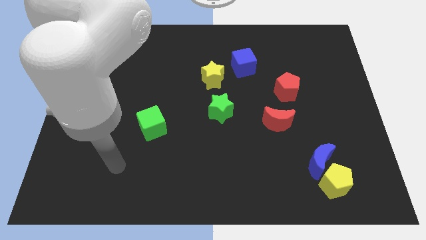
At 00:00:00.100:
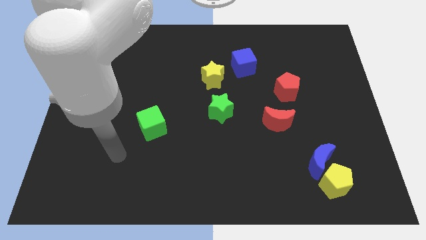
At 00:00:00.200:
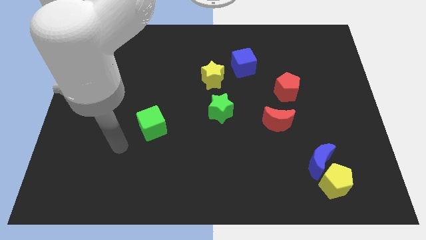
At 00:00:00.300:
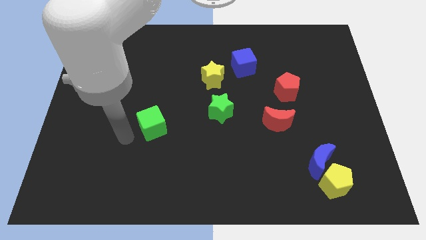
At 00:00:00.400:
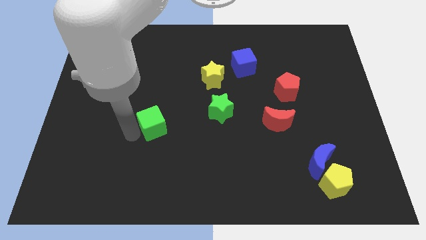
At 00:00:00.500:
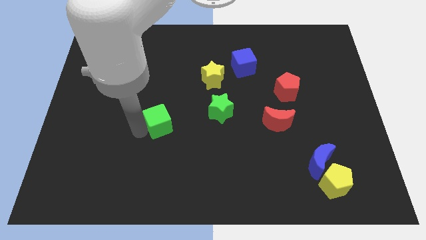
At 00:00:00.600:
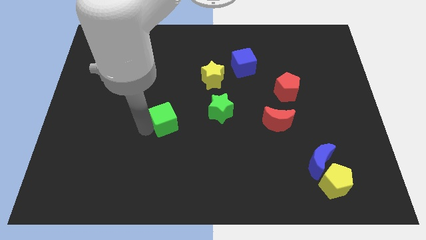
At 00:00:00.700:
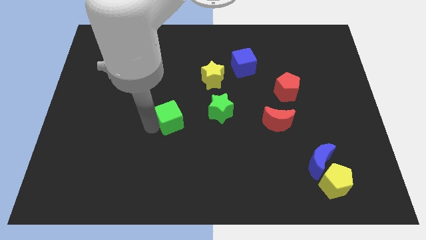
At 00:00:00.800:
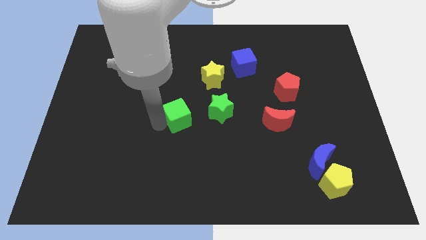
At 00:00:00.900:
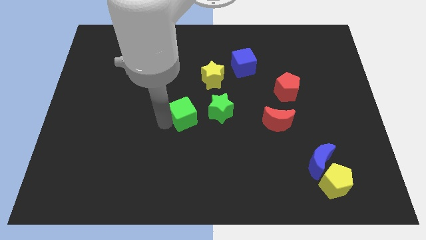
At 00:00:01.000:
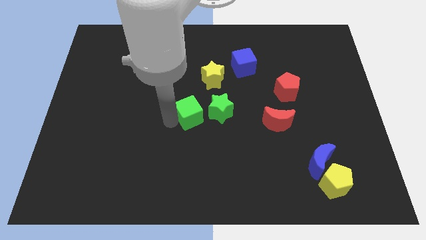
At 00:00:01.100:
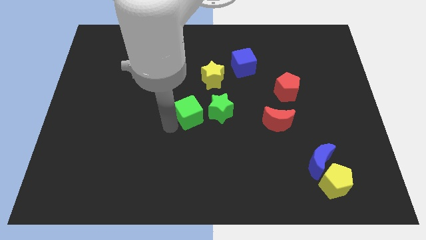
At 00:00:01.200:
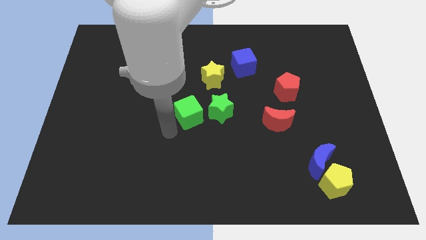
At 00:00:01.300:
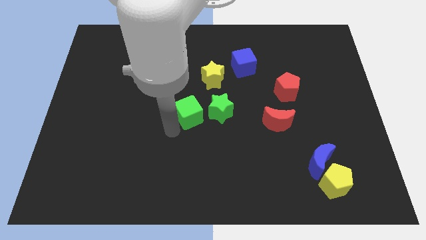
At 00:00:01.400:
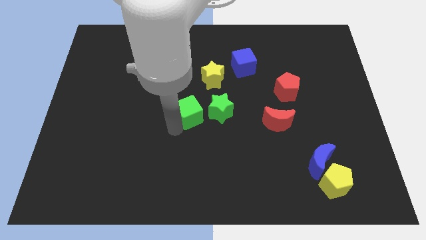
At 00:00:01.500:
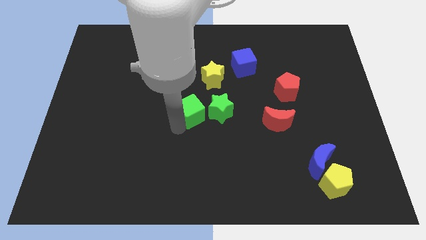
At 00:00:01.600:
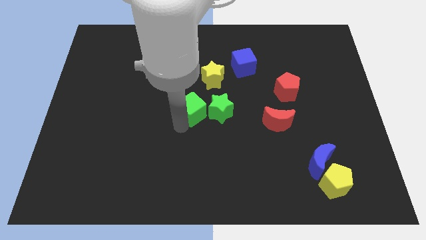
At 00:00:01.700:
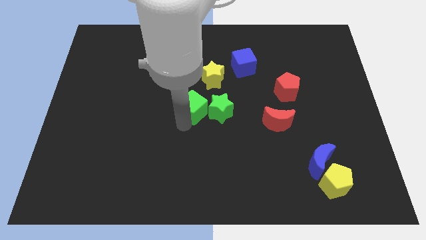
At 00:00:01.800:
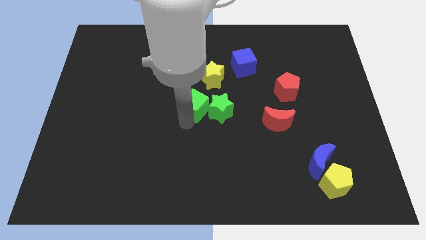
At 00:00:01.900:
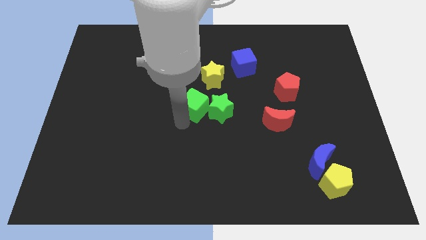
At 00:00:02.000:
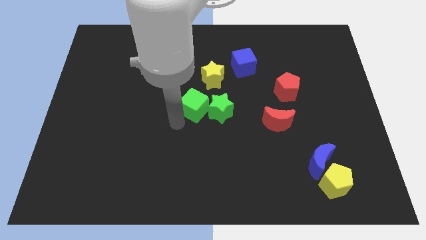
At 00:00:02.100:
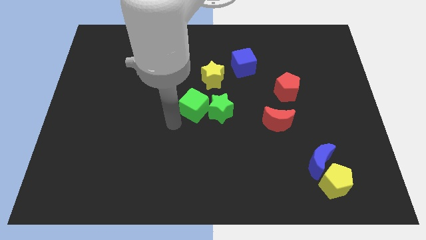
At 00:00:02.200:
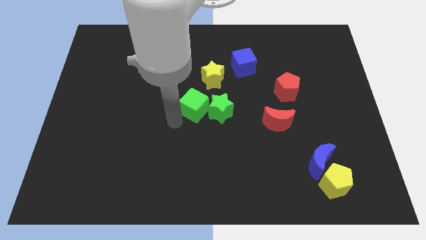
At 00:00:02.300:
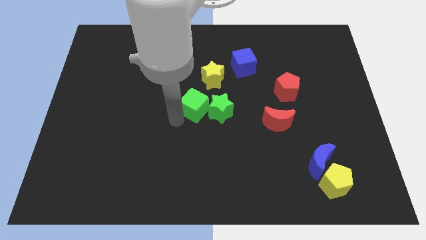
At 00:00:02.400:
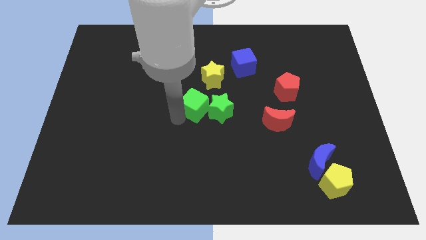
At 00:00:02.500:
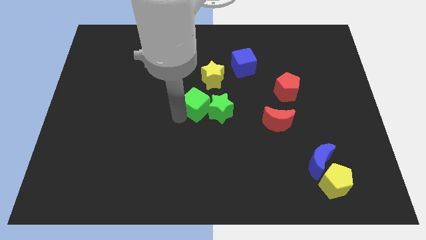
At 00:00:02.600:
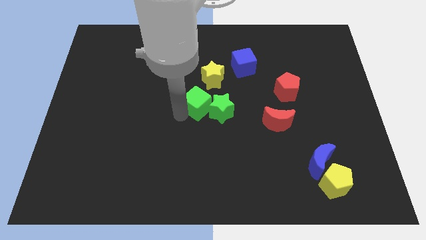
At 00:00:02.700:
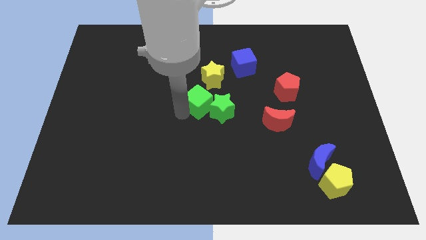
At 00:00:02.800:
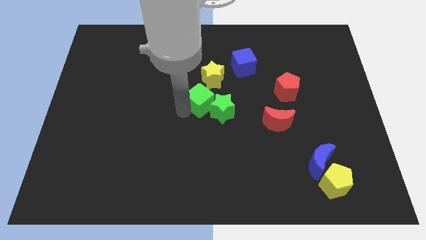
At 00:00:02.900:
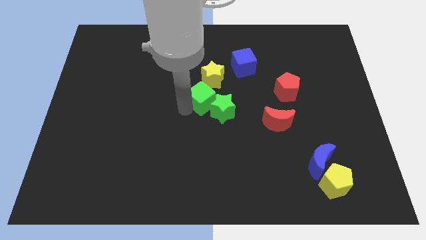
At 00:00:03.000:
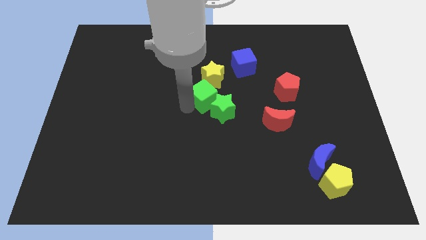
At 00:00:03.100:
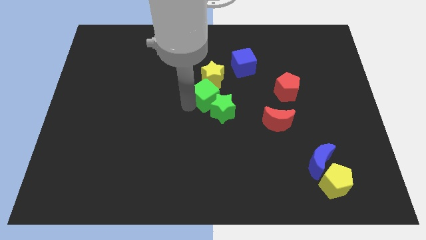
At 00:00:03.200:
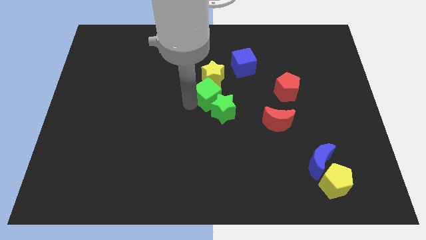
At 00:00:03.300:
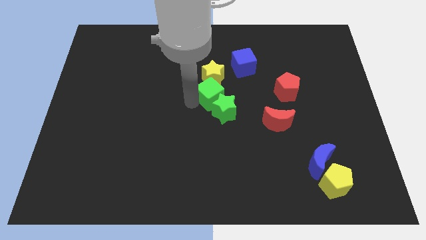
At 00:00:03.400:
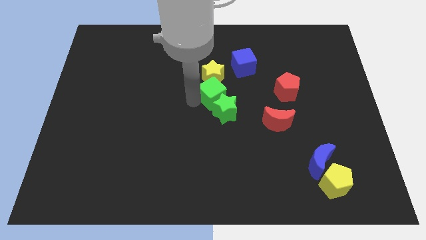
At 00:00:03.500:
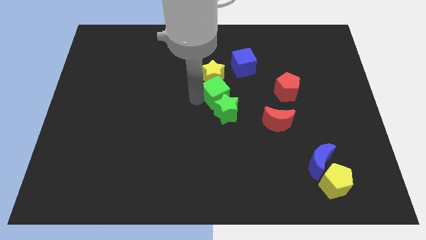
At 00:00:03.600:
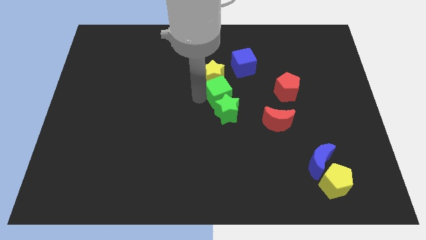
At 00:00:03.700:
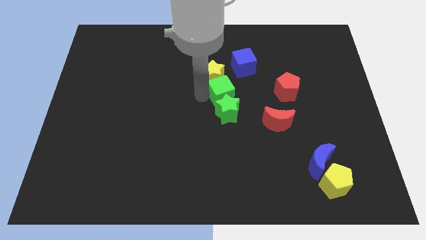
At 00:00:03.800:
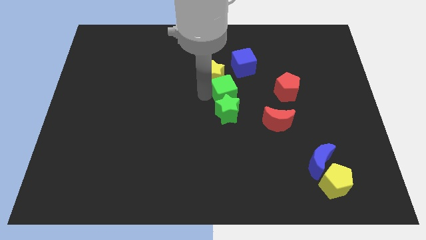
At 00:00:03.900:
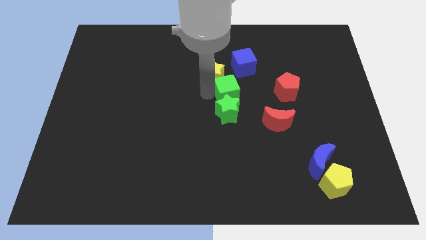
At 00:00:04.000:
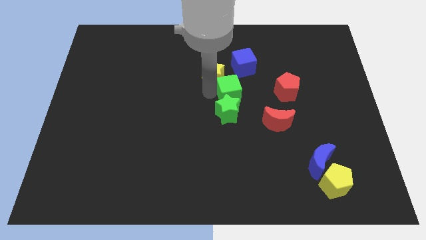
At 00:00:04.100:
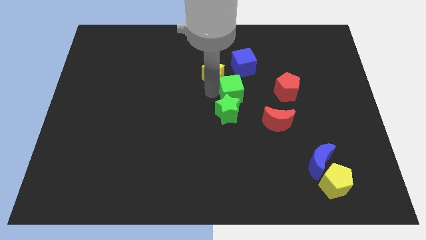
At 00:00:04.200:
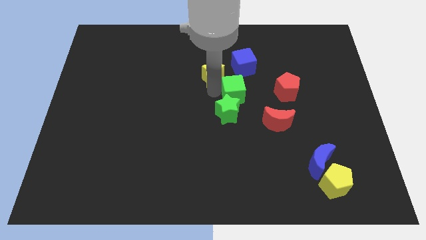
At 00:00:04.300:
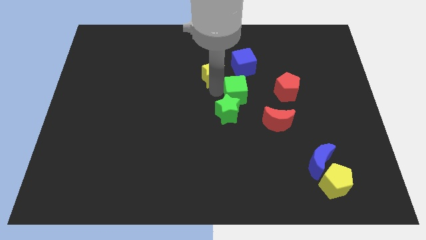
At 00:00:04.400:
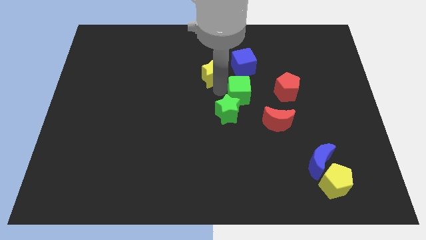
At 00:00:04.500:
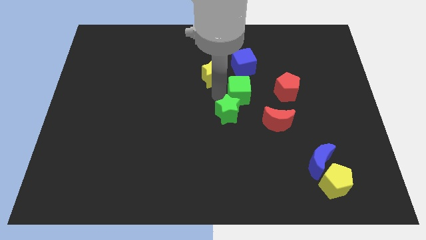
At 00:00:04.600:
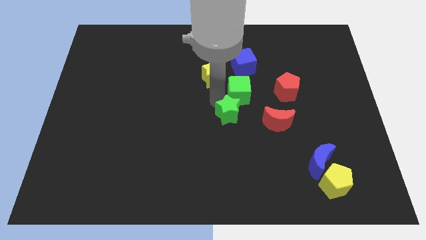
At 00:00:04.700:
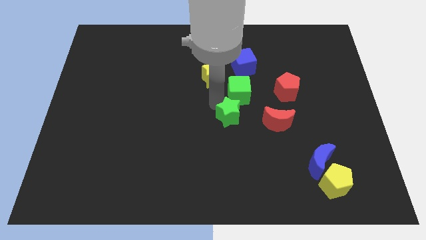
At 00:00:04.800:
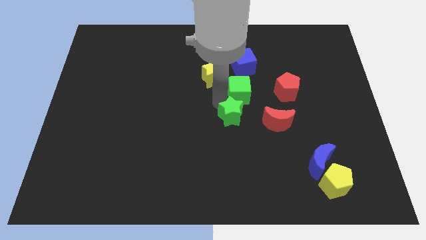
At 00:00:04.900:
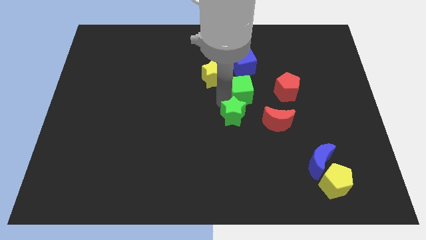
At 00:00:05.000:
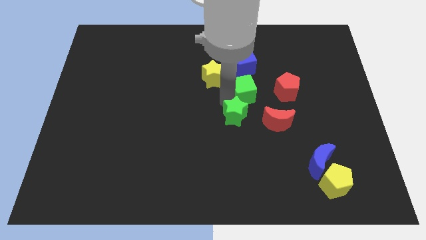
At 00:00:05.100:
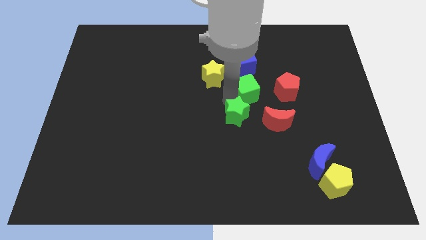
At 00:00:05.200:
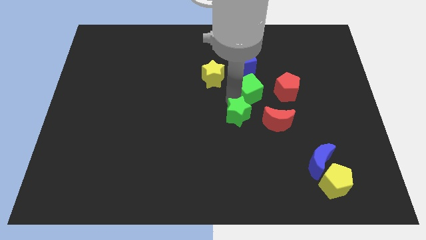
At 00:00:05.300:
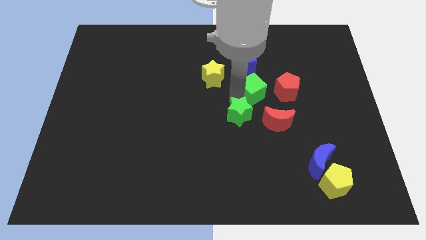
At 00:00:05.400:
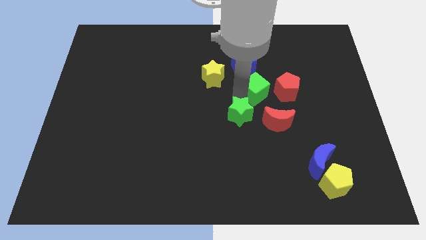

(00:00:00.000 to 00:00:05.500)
put the green cube to the bottom right side of the blue cube

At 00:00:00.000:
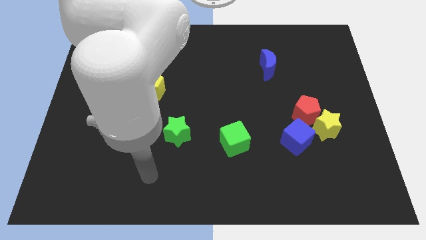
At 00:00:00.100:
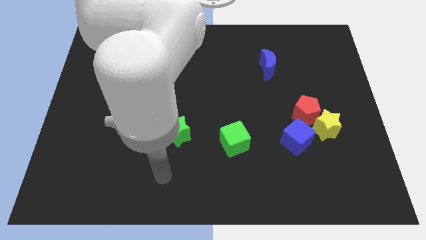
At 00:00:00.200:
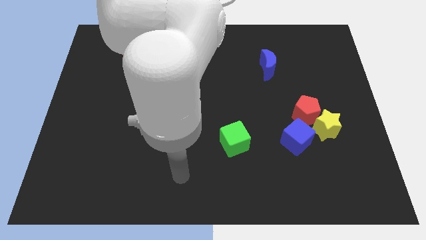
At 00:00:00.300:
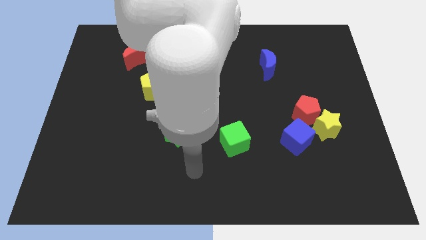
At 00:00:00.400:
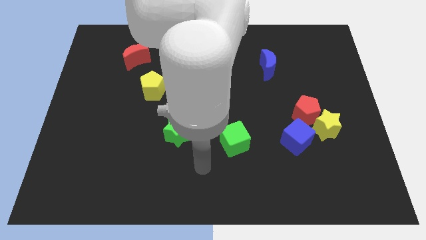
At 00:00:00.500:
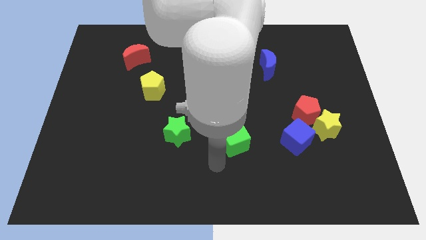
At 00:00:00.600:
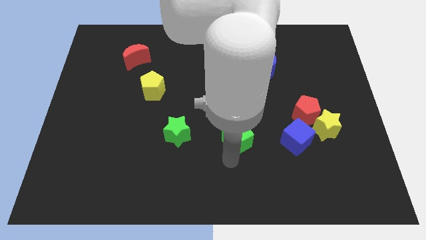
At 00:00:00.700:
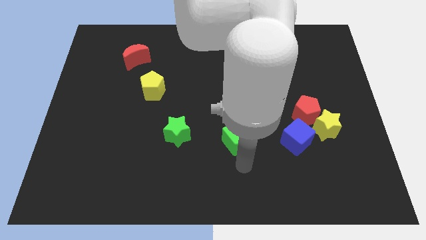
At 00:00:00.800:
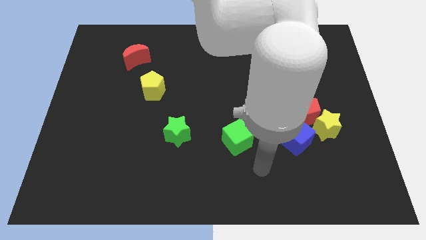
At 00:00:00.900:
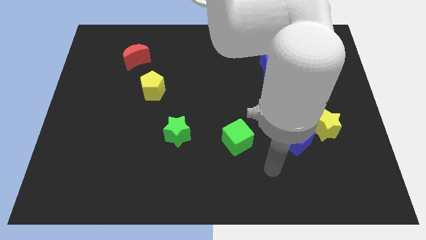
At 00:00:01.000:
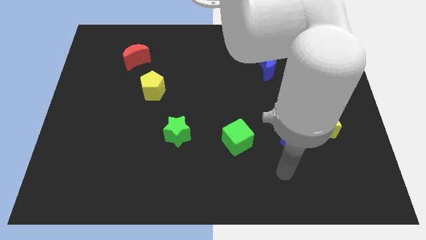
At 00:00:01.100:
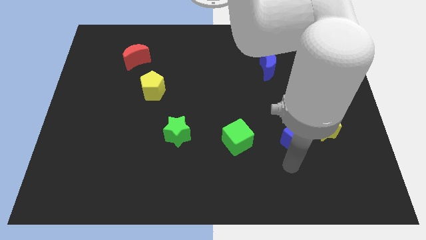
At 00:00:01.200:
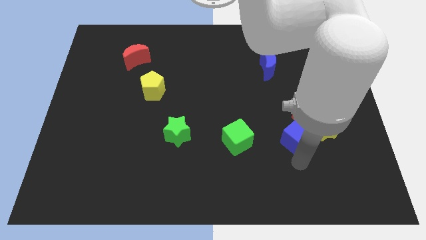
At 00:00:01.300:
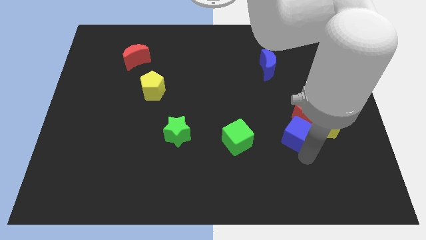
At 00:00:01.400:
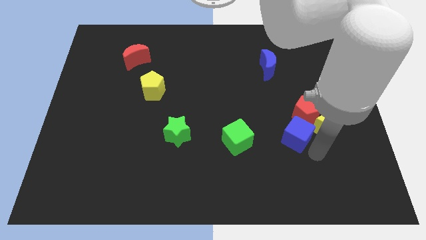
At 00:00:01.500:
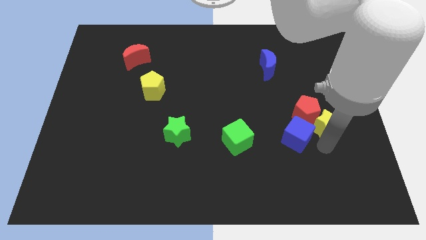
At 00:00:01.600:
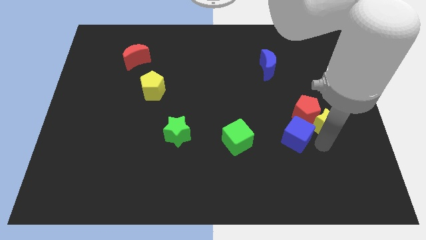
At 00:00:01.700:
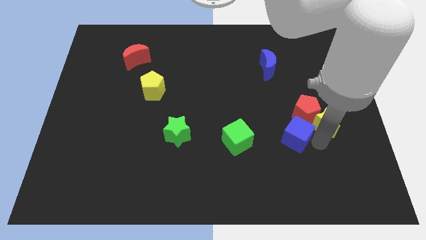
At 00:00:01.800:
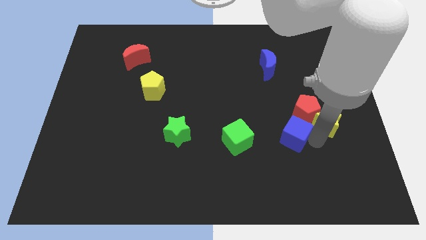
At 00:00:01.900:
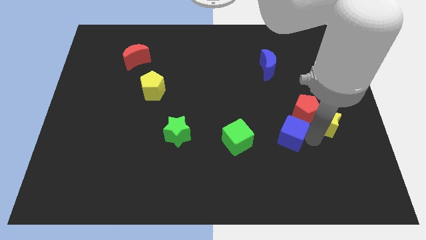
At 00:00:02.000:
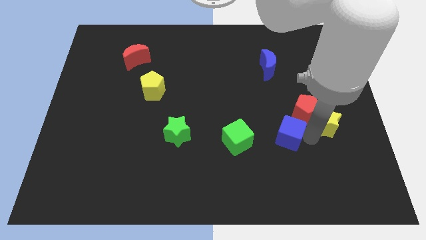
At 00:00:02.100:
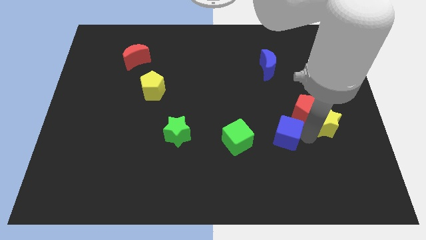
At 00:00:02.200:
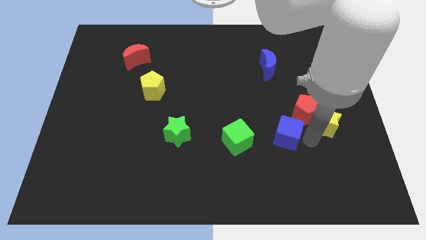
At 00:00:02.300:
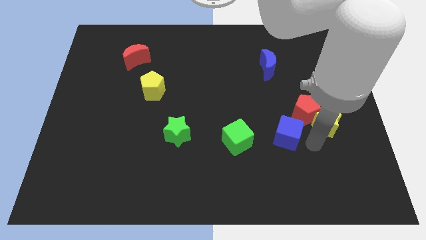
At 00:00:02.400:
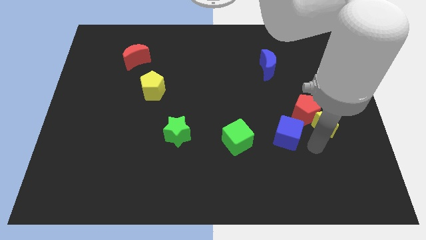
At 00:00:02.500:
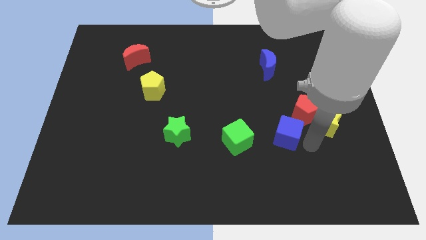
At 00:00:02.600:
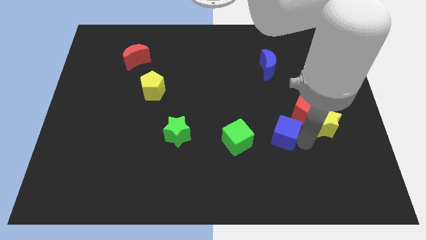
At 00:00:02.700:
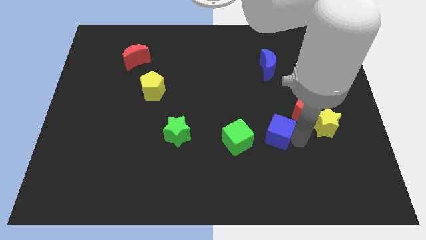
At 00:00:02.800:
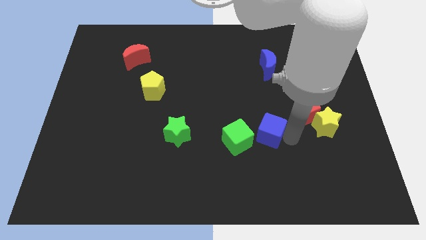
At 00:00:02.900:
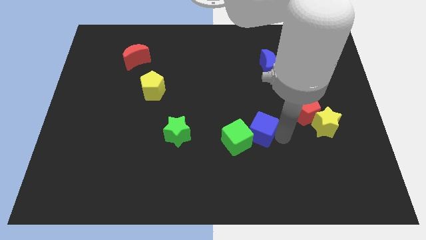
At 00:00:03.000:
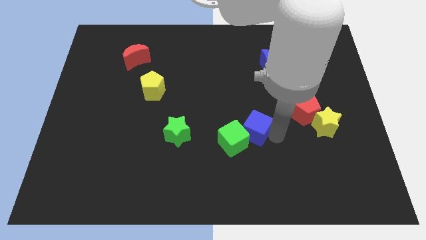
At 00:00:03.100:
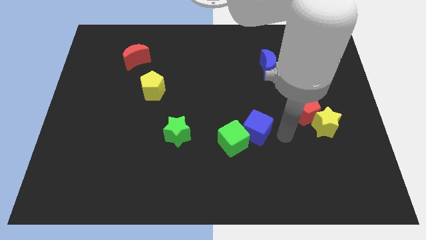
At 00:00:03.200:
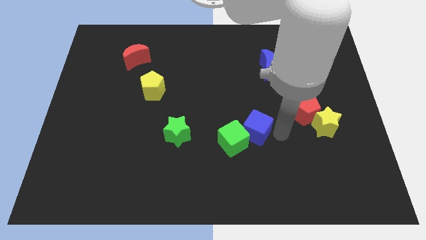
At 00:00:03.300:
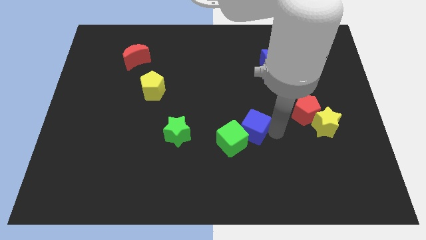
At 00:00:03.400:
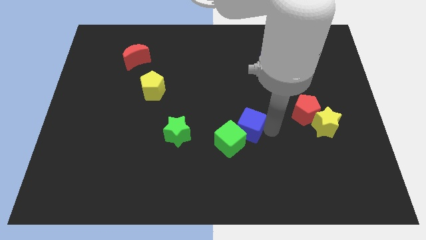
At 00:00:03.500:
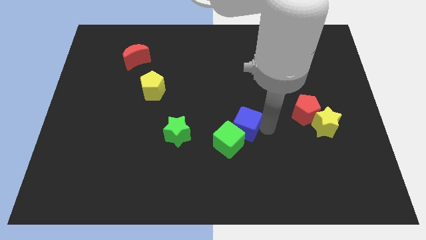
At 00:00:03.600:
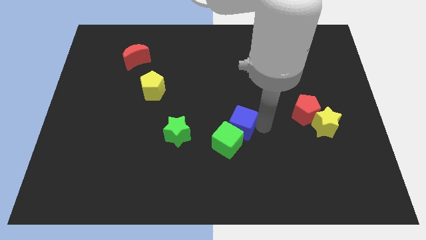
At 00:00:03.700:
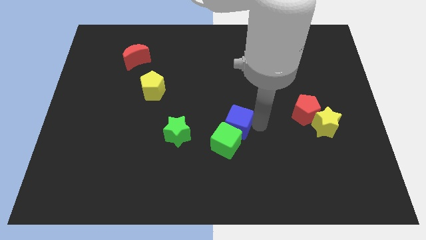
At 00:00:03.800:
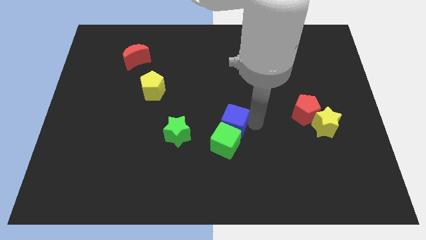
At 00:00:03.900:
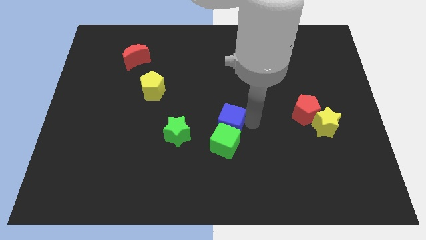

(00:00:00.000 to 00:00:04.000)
move the blue cube diagonally up and to the left of the green cube
